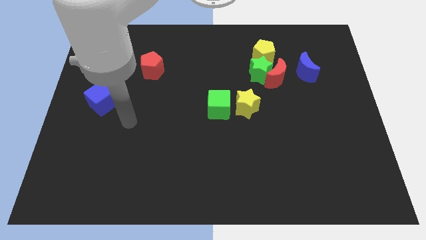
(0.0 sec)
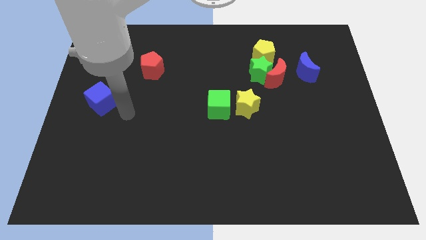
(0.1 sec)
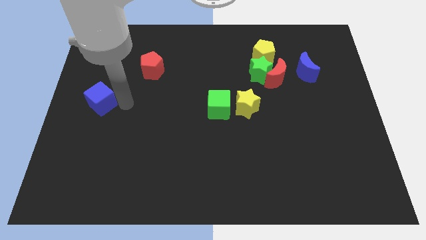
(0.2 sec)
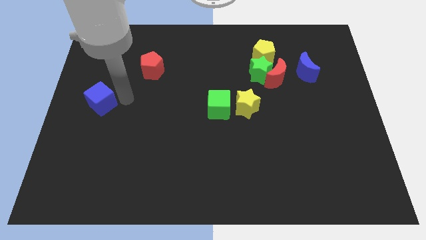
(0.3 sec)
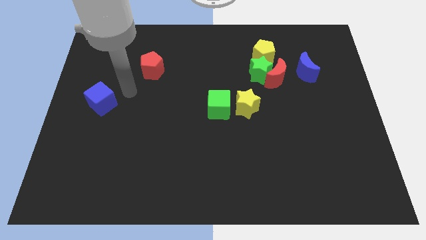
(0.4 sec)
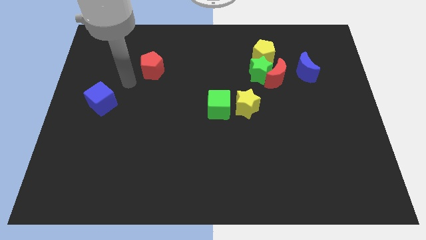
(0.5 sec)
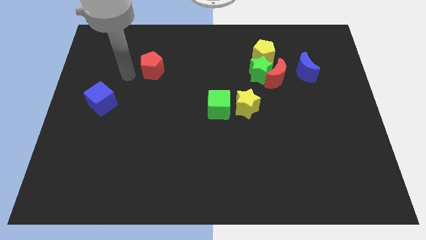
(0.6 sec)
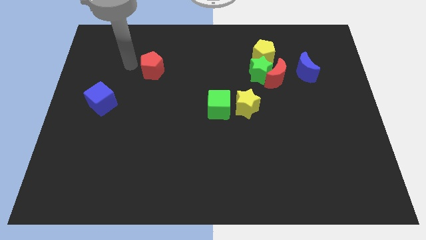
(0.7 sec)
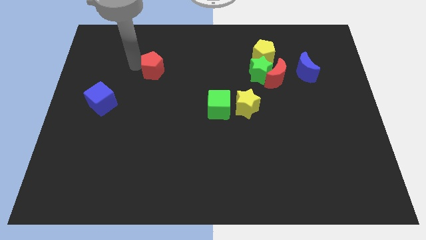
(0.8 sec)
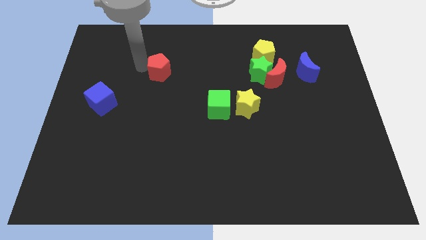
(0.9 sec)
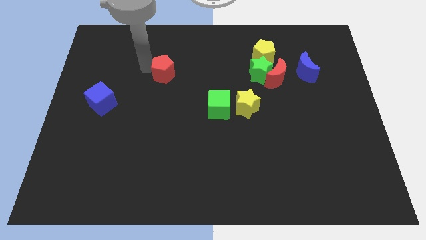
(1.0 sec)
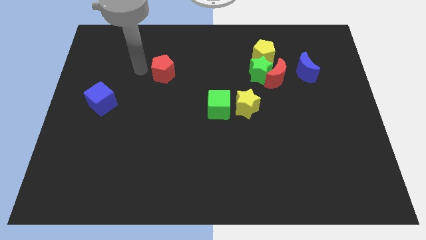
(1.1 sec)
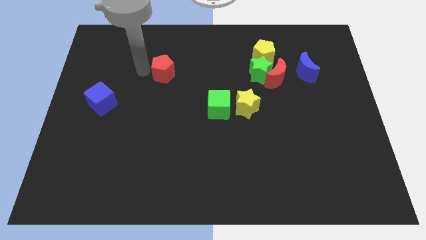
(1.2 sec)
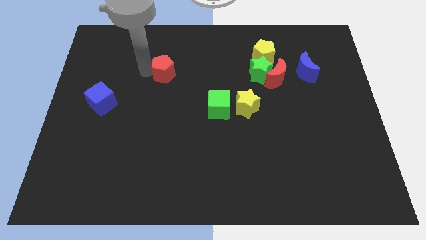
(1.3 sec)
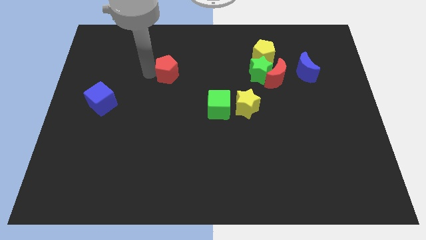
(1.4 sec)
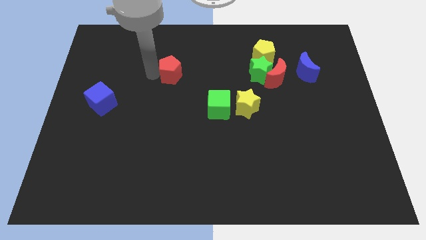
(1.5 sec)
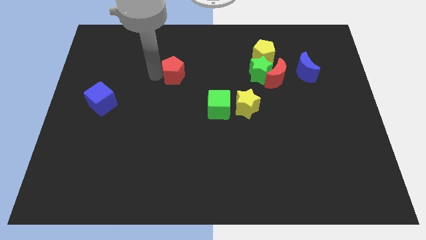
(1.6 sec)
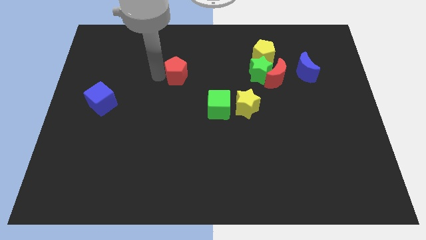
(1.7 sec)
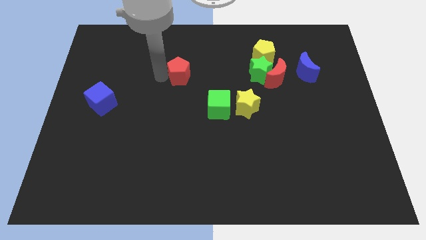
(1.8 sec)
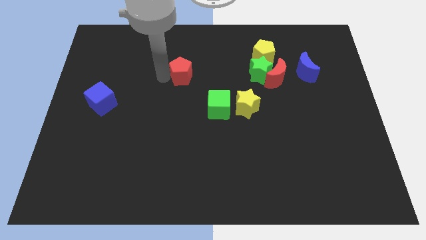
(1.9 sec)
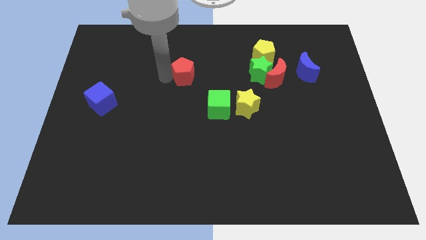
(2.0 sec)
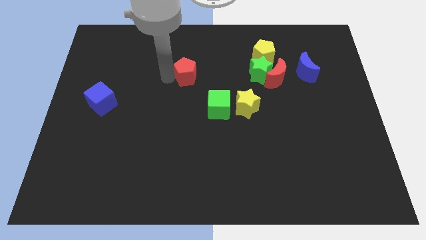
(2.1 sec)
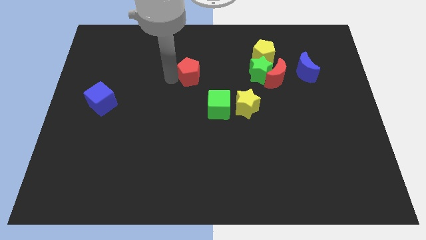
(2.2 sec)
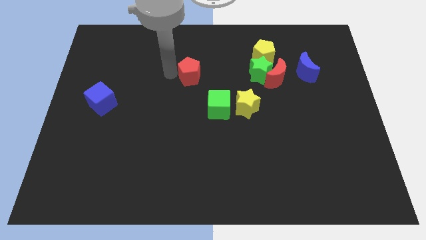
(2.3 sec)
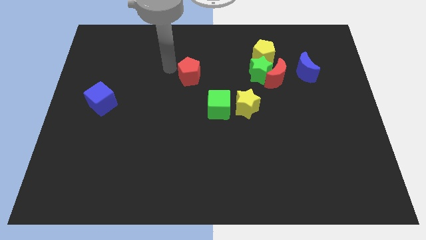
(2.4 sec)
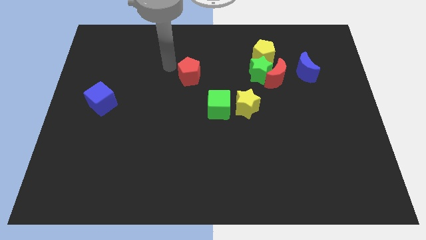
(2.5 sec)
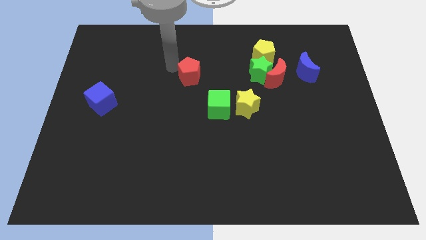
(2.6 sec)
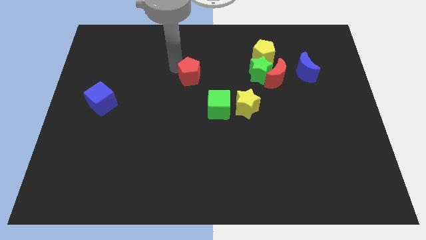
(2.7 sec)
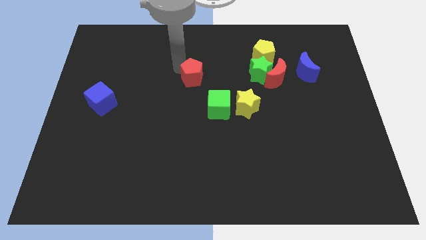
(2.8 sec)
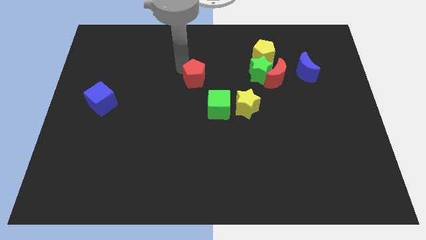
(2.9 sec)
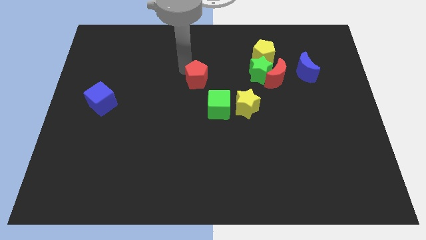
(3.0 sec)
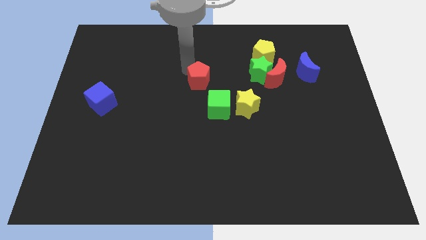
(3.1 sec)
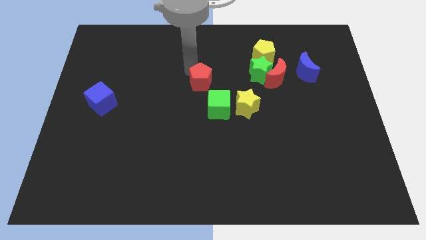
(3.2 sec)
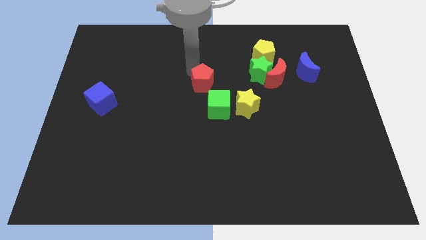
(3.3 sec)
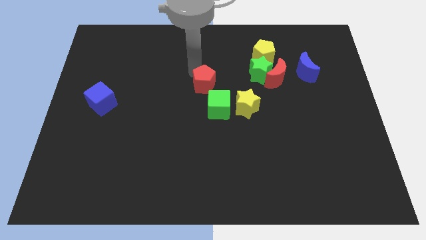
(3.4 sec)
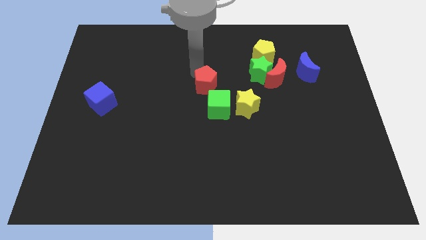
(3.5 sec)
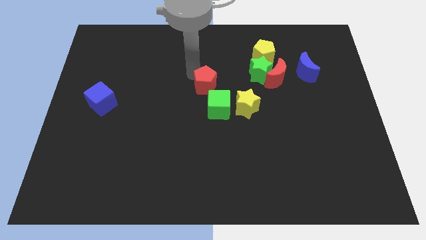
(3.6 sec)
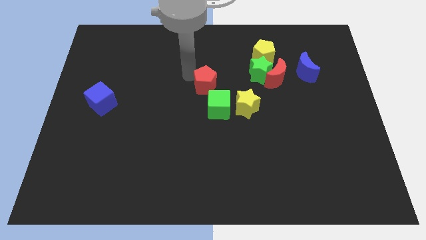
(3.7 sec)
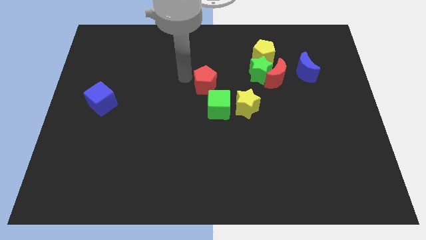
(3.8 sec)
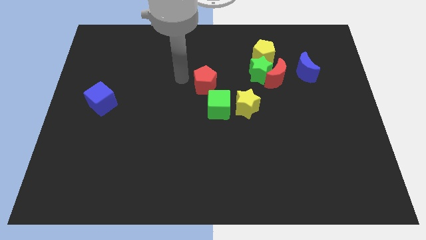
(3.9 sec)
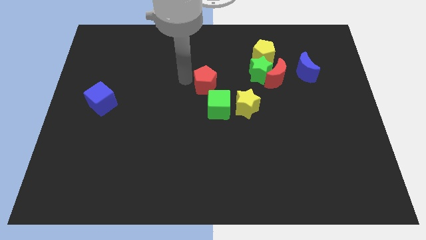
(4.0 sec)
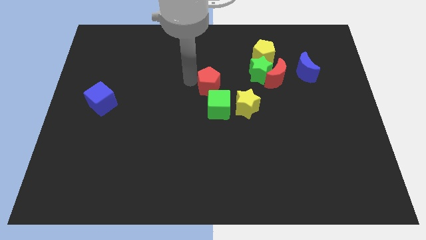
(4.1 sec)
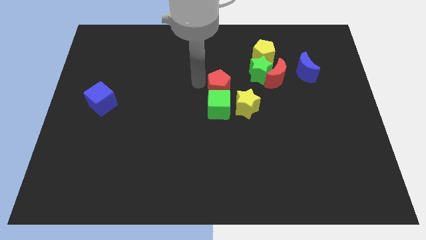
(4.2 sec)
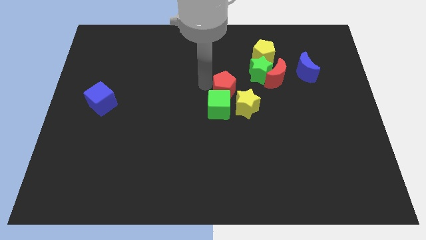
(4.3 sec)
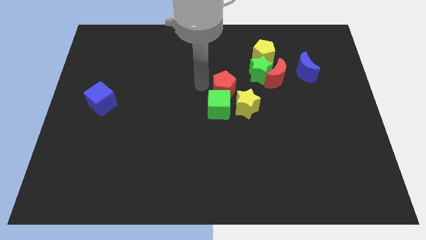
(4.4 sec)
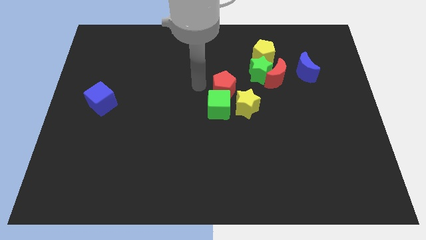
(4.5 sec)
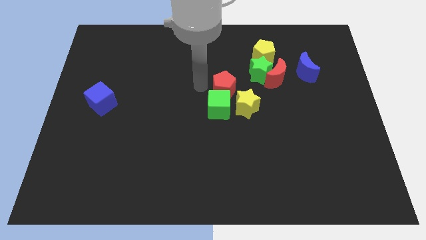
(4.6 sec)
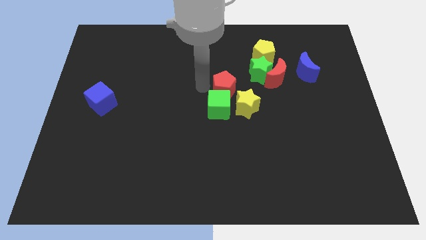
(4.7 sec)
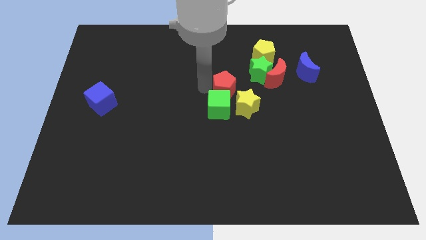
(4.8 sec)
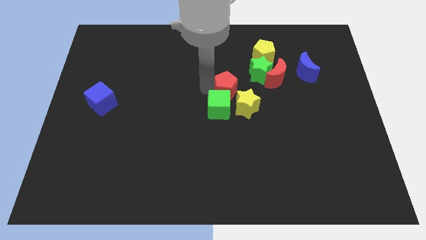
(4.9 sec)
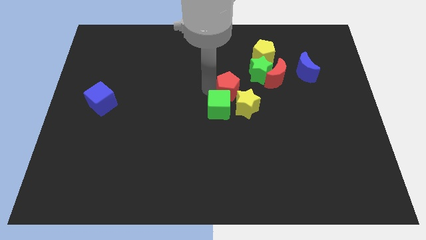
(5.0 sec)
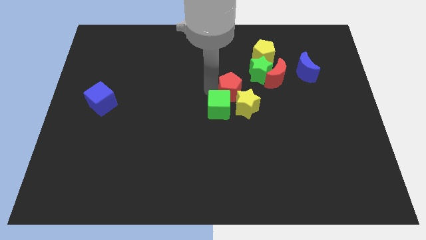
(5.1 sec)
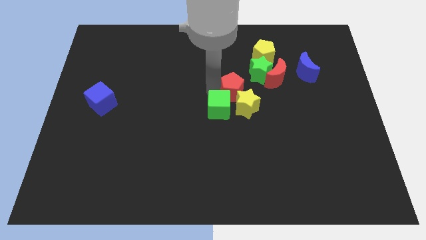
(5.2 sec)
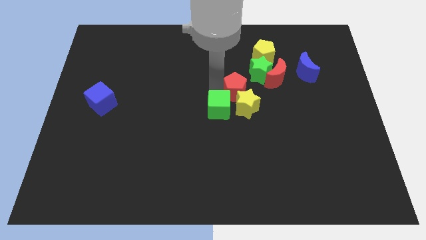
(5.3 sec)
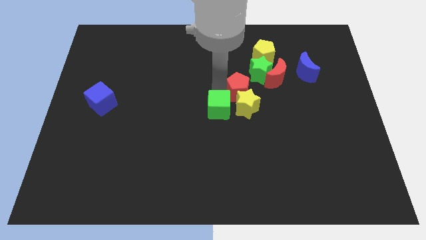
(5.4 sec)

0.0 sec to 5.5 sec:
put the red pentagon to the bottom left of the red moon

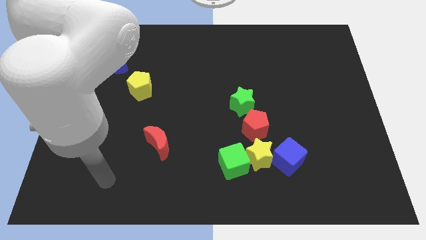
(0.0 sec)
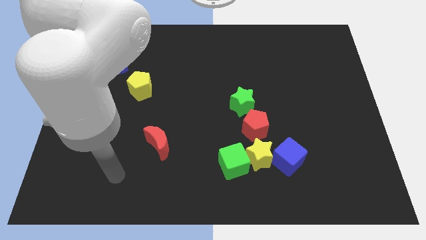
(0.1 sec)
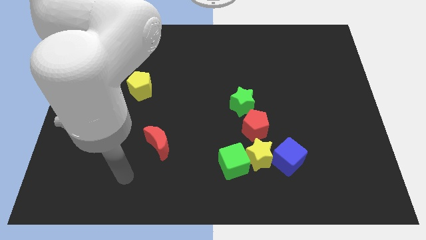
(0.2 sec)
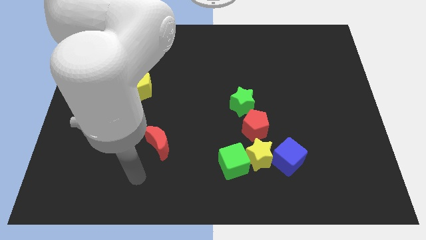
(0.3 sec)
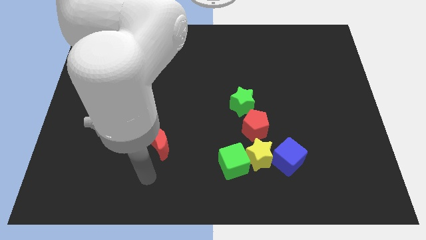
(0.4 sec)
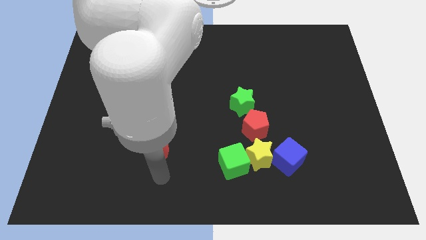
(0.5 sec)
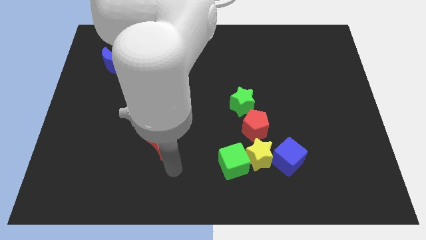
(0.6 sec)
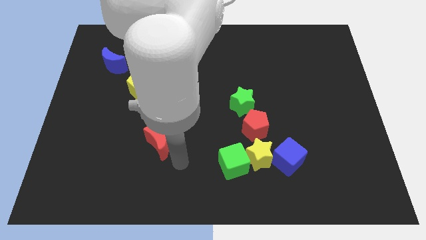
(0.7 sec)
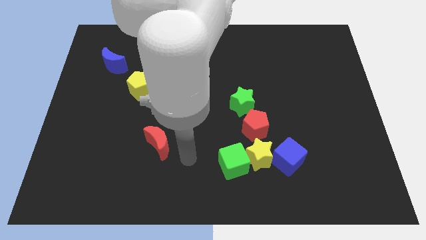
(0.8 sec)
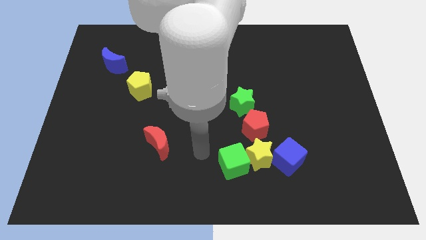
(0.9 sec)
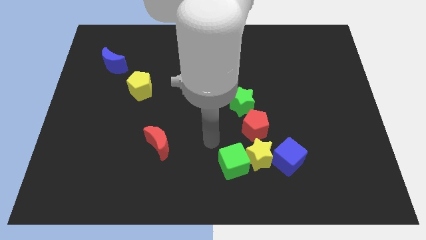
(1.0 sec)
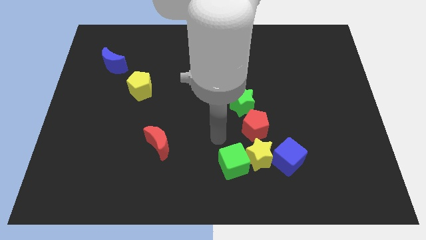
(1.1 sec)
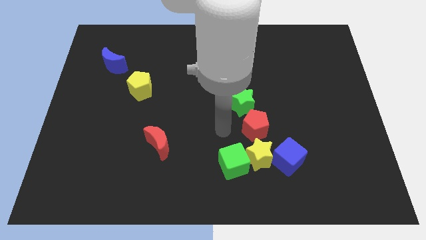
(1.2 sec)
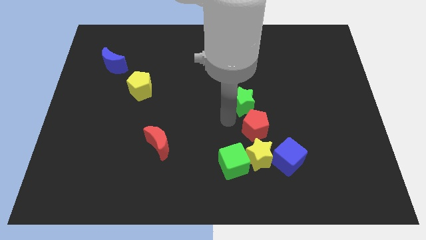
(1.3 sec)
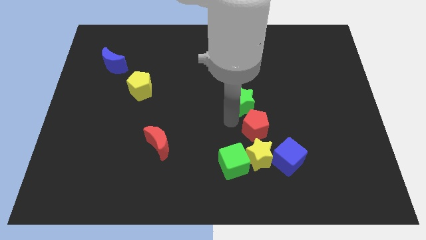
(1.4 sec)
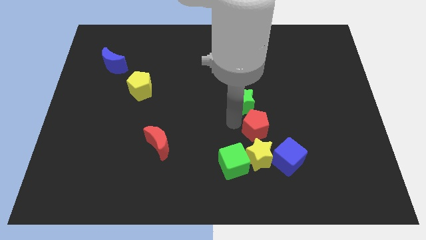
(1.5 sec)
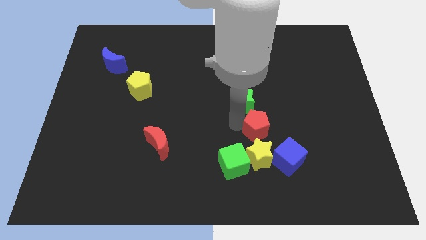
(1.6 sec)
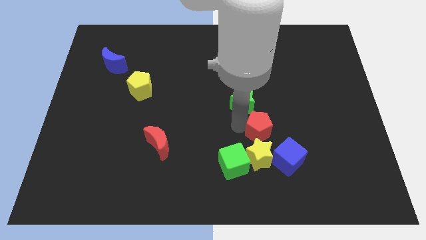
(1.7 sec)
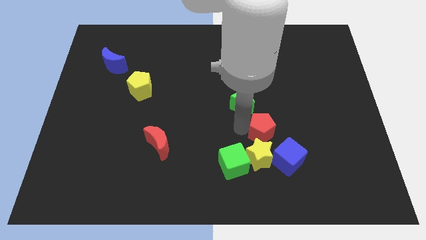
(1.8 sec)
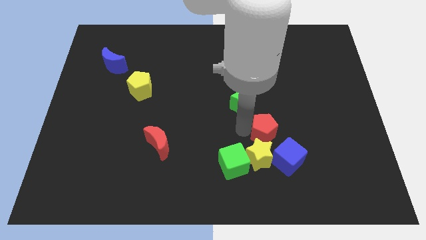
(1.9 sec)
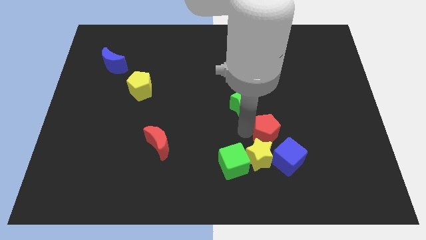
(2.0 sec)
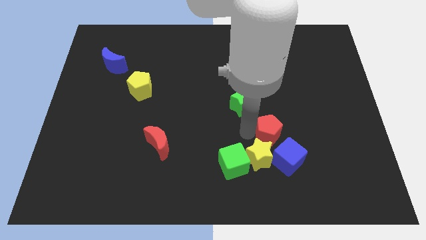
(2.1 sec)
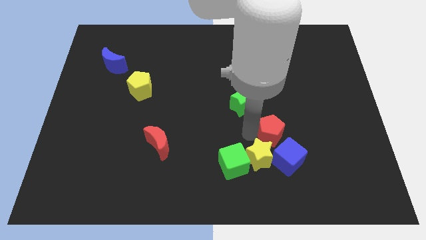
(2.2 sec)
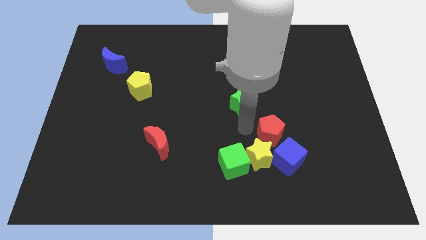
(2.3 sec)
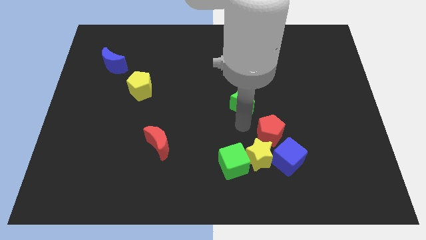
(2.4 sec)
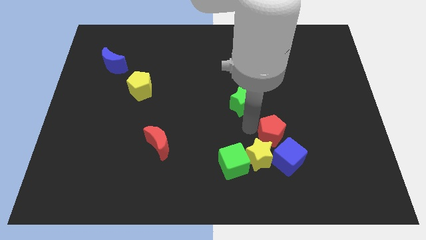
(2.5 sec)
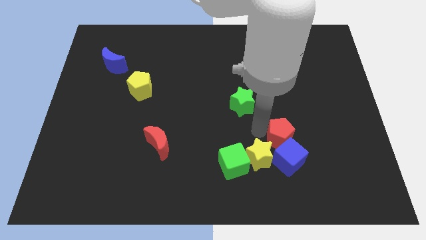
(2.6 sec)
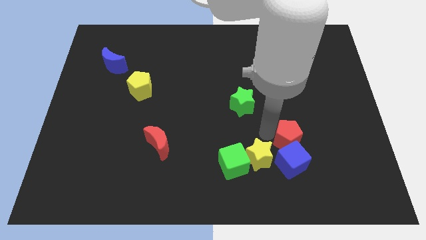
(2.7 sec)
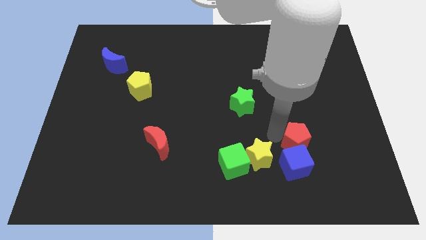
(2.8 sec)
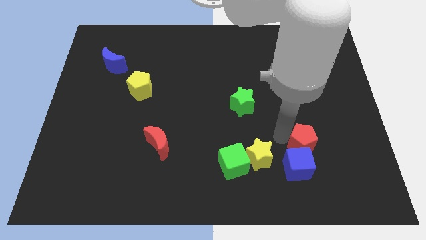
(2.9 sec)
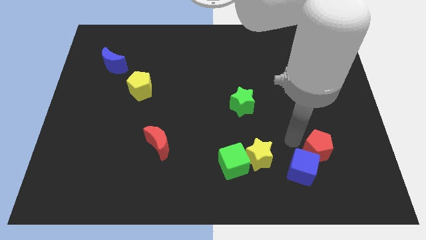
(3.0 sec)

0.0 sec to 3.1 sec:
slide the red pentagon just right of the blue cube
